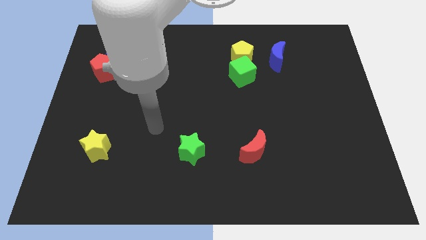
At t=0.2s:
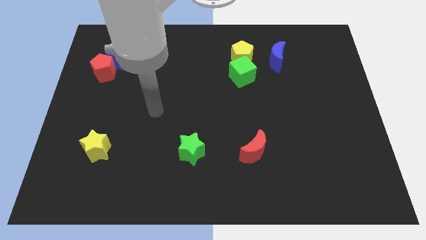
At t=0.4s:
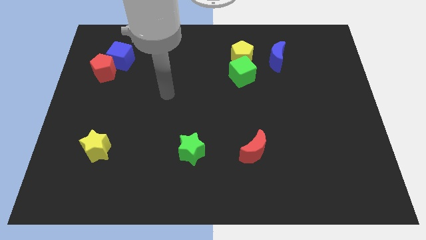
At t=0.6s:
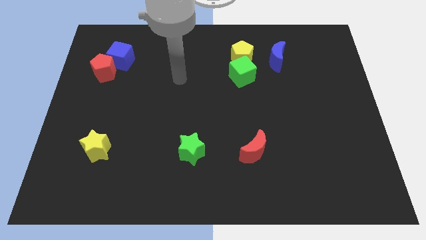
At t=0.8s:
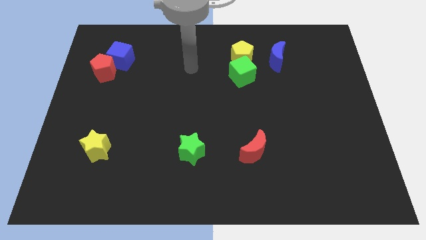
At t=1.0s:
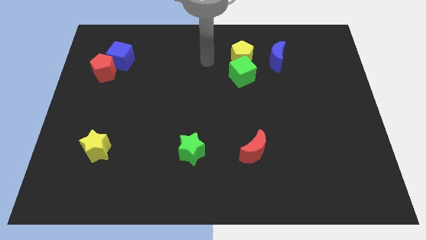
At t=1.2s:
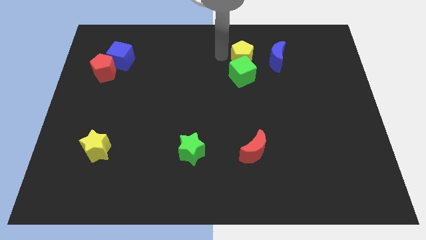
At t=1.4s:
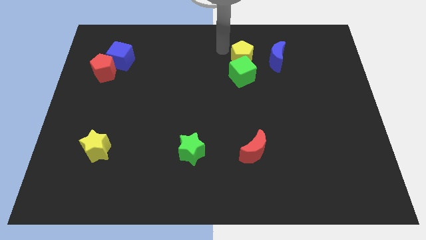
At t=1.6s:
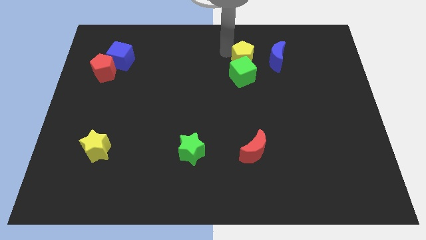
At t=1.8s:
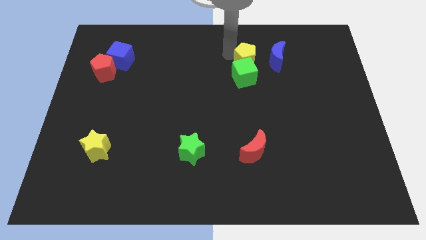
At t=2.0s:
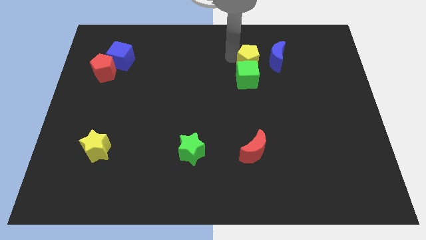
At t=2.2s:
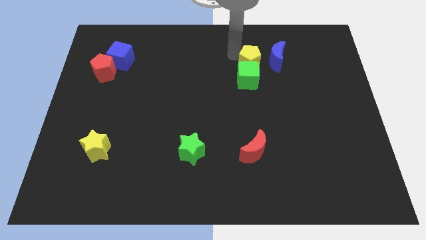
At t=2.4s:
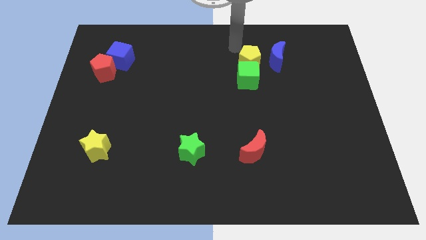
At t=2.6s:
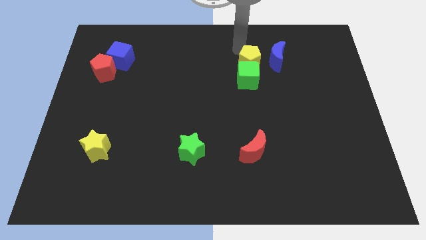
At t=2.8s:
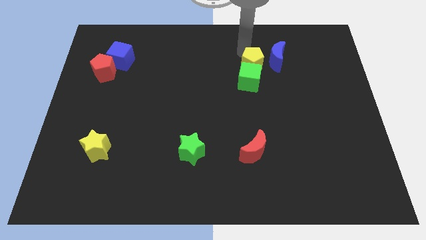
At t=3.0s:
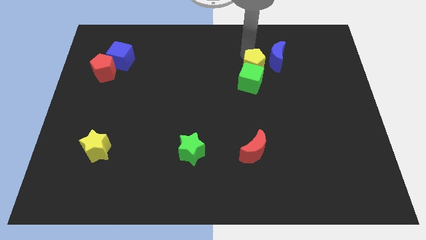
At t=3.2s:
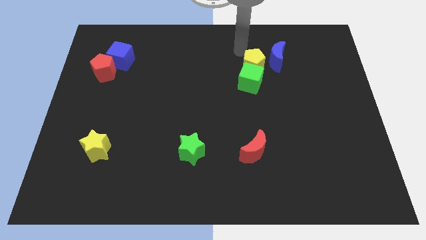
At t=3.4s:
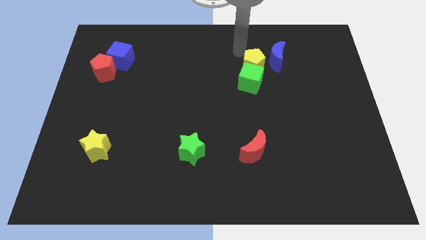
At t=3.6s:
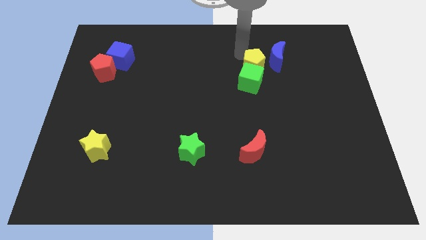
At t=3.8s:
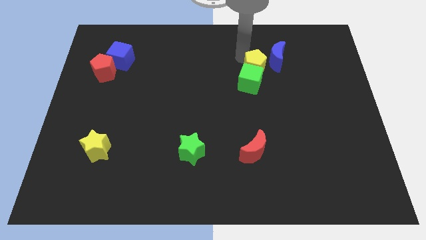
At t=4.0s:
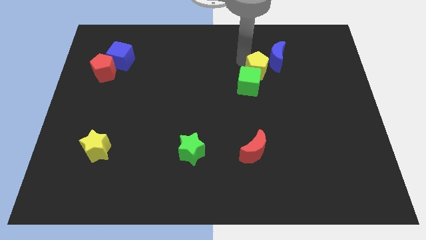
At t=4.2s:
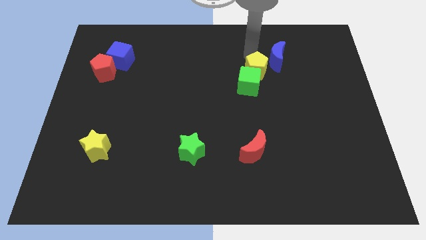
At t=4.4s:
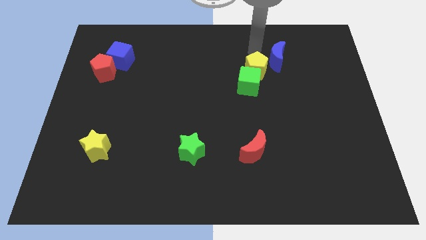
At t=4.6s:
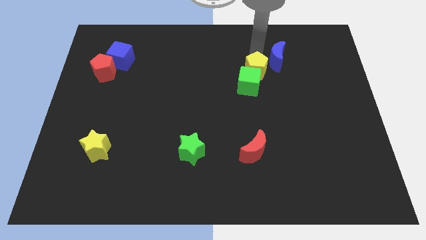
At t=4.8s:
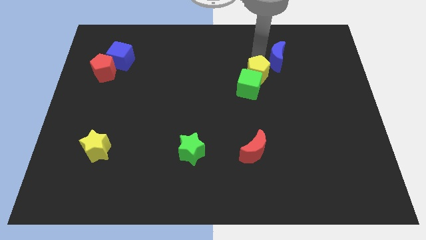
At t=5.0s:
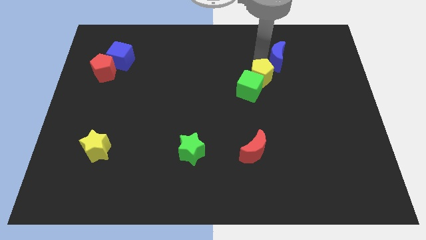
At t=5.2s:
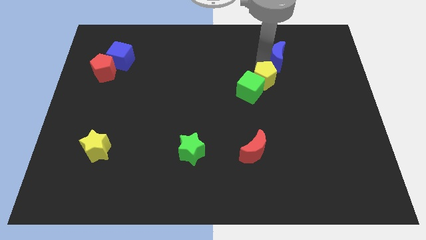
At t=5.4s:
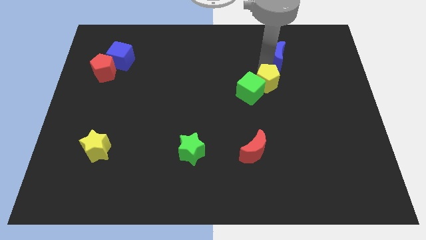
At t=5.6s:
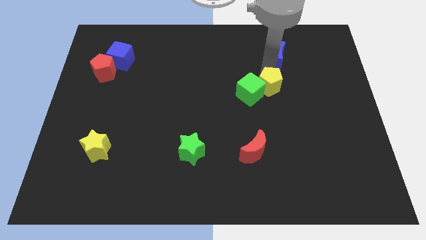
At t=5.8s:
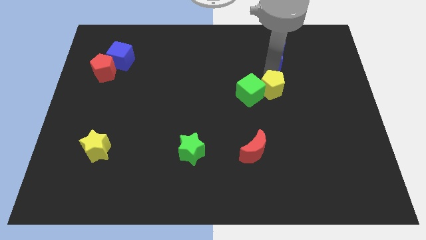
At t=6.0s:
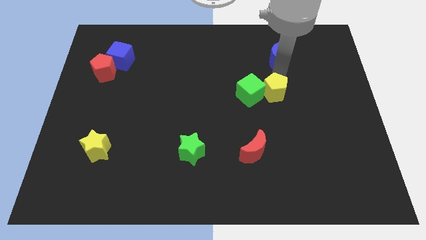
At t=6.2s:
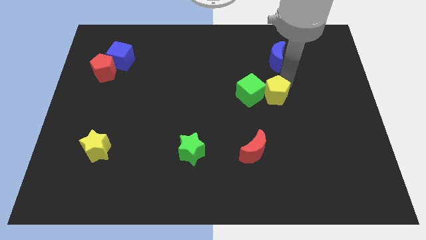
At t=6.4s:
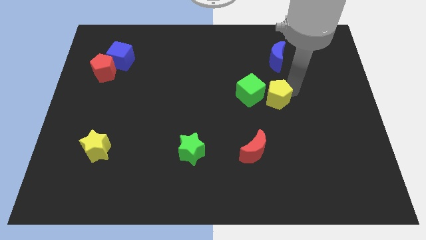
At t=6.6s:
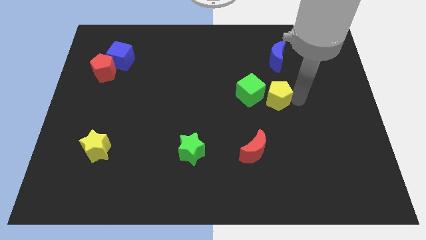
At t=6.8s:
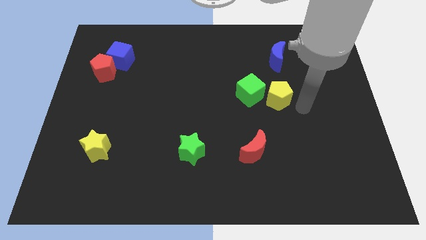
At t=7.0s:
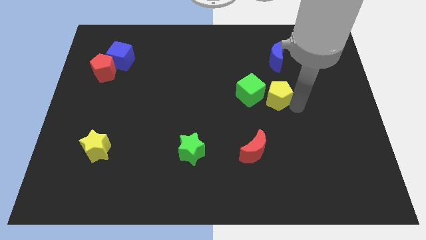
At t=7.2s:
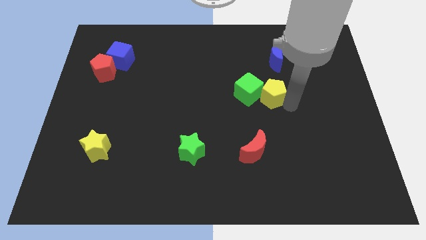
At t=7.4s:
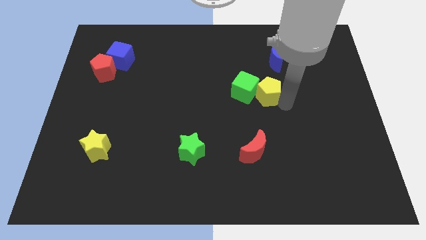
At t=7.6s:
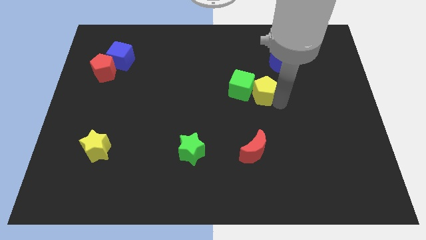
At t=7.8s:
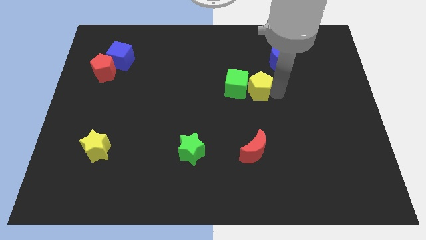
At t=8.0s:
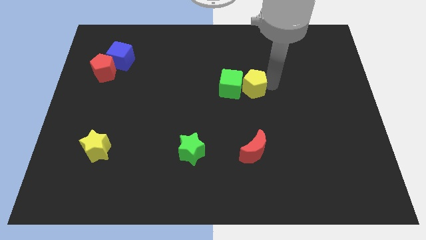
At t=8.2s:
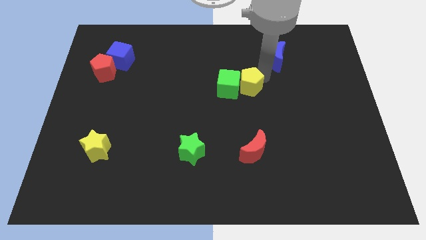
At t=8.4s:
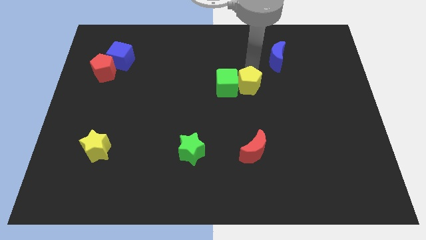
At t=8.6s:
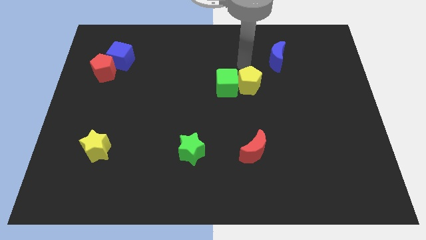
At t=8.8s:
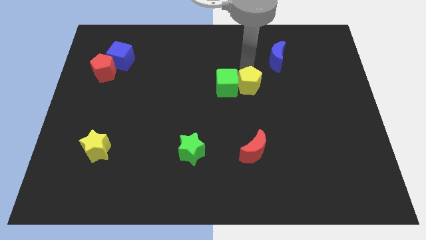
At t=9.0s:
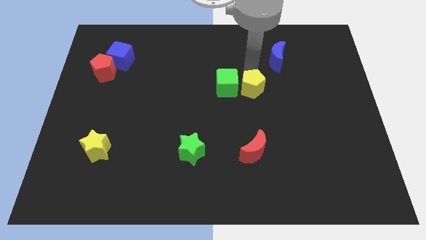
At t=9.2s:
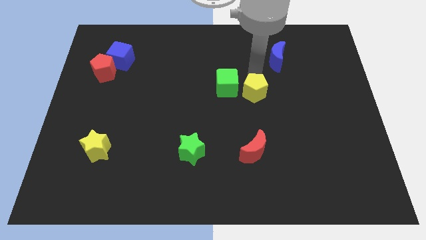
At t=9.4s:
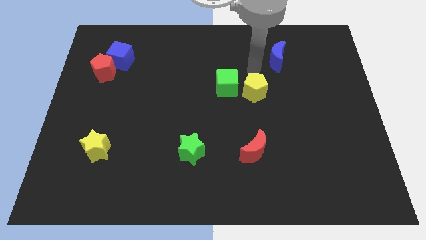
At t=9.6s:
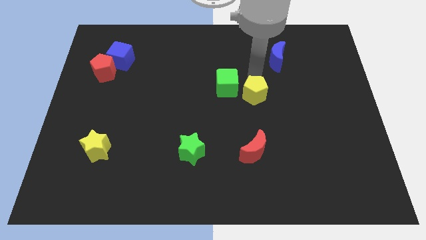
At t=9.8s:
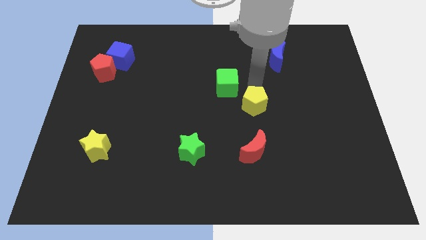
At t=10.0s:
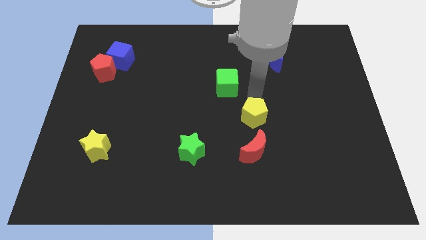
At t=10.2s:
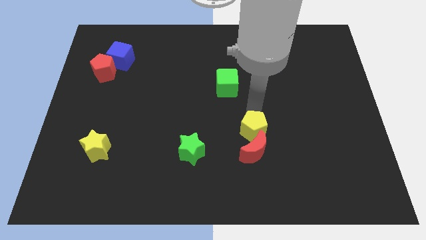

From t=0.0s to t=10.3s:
slide the yellow pentagon to the red moon

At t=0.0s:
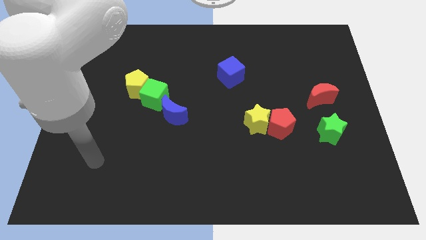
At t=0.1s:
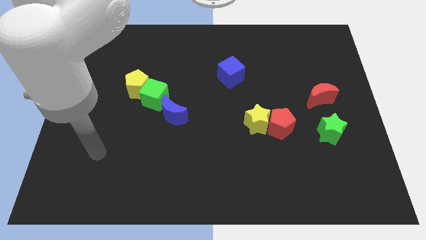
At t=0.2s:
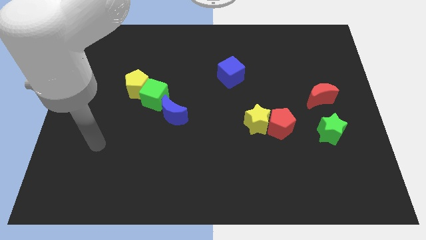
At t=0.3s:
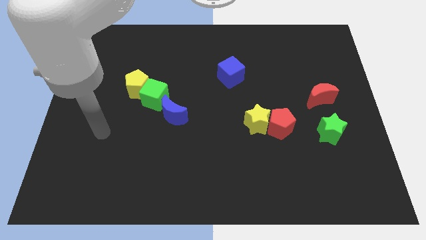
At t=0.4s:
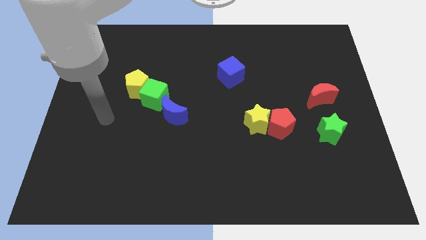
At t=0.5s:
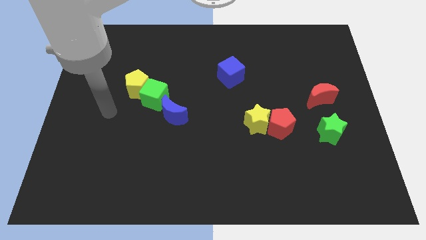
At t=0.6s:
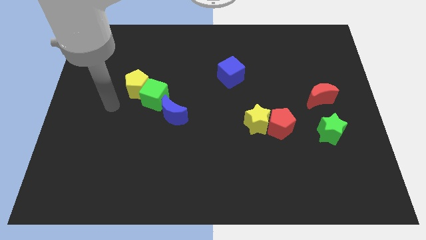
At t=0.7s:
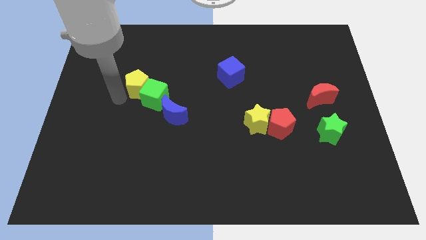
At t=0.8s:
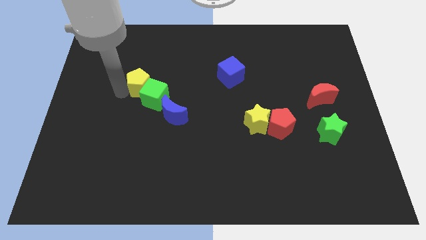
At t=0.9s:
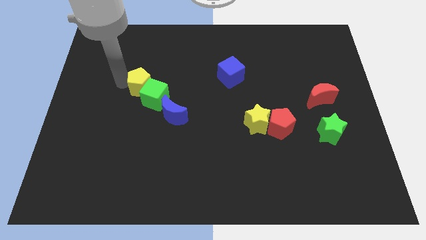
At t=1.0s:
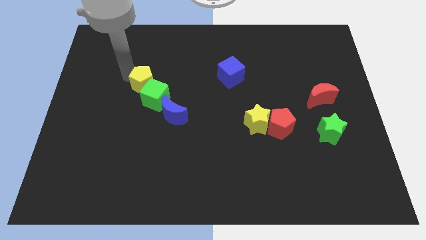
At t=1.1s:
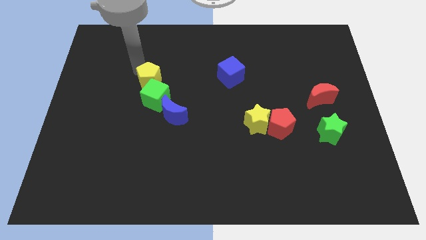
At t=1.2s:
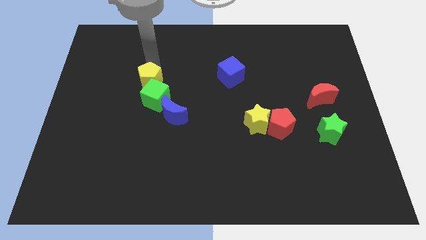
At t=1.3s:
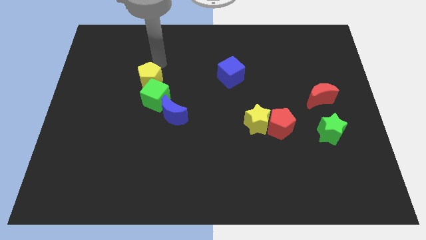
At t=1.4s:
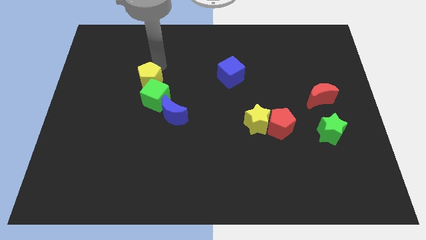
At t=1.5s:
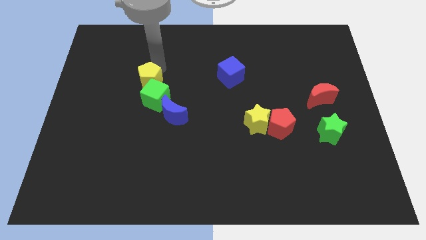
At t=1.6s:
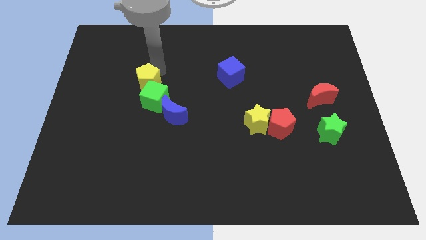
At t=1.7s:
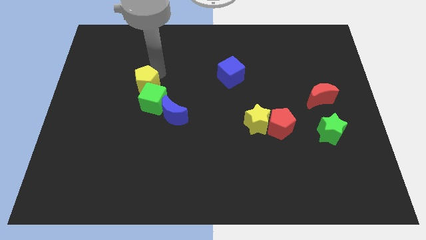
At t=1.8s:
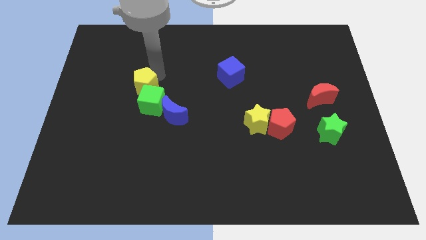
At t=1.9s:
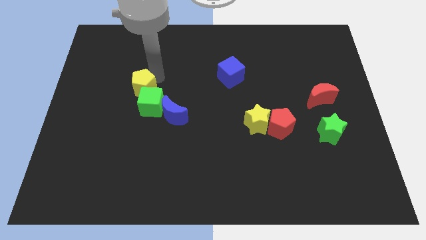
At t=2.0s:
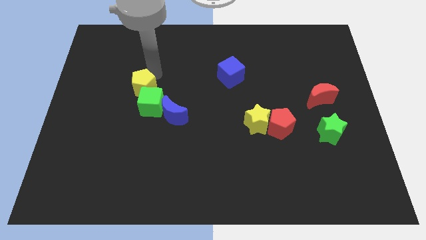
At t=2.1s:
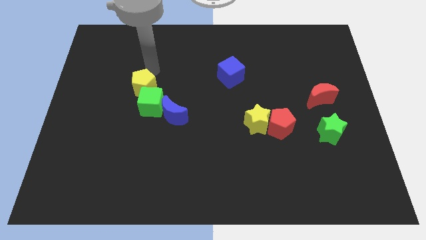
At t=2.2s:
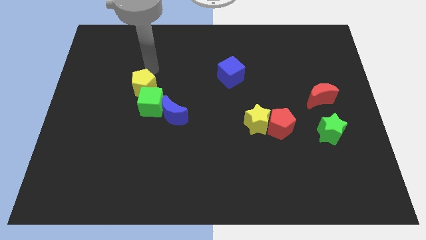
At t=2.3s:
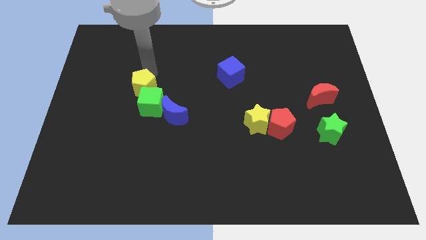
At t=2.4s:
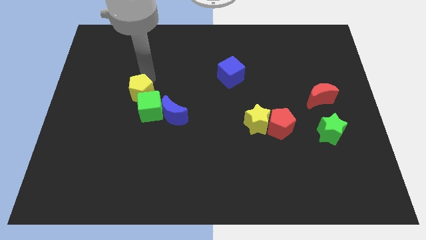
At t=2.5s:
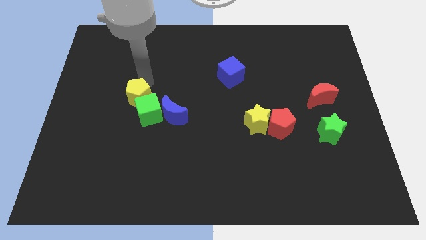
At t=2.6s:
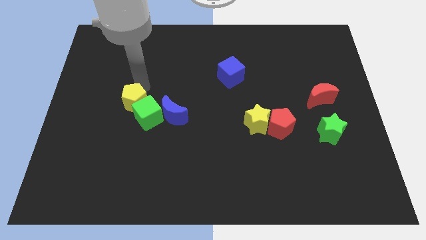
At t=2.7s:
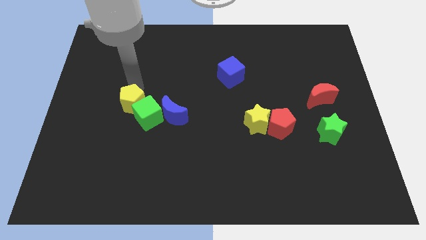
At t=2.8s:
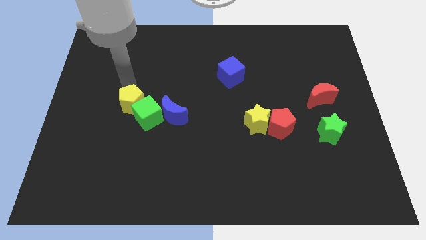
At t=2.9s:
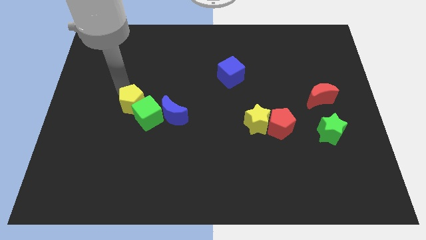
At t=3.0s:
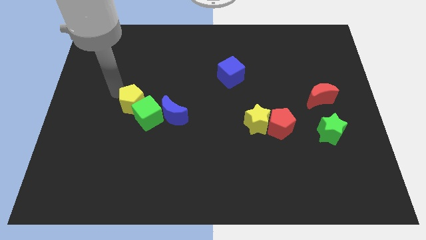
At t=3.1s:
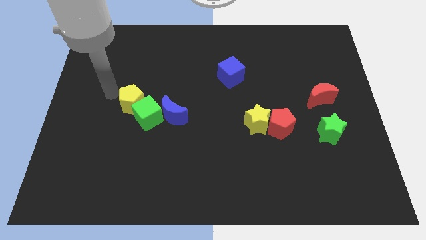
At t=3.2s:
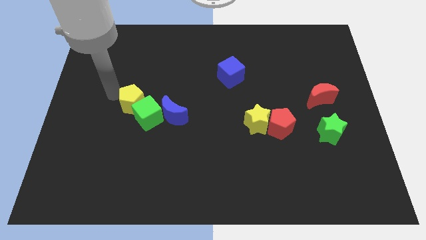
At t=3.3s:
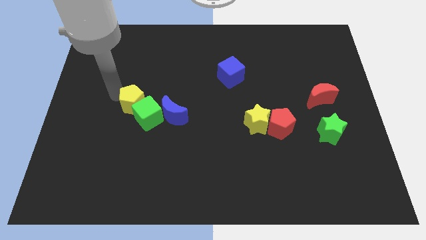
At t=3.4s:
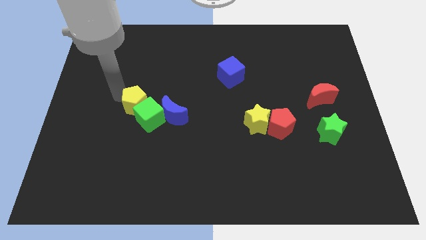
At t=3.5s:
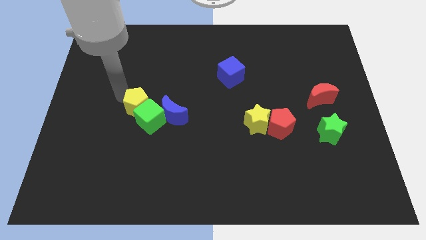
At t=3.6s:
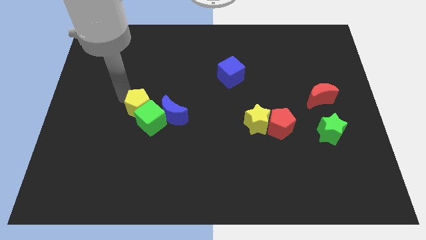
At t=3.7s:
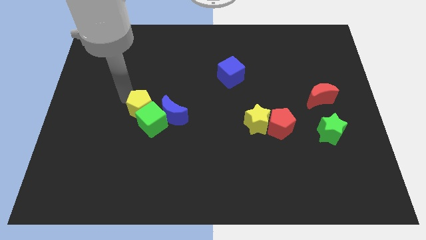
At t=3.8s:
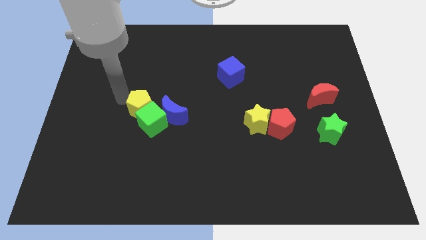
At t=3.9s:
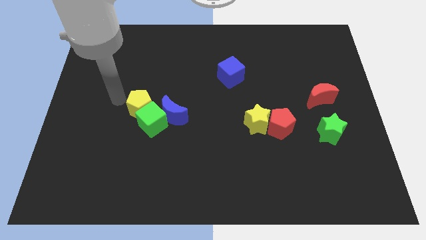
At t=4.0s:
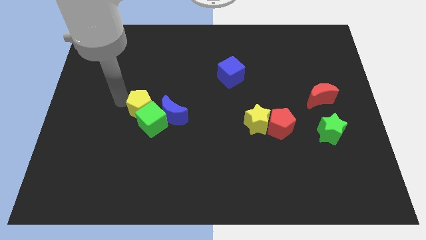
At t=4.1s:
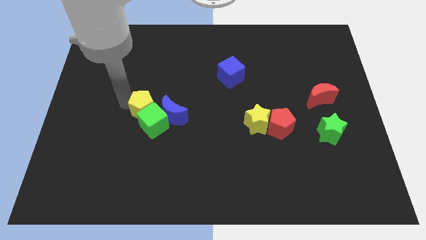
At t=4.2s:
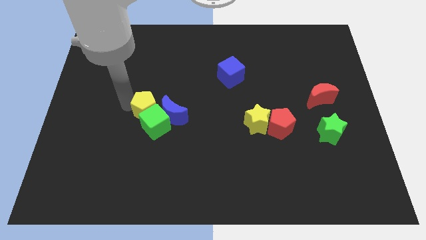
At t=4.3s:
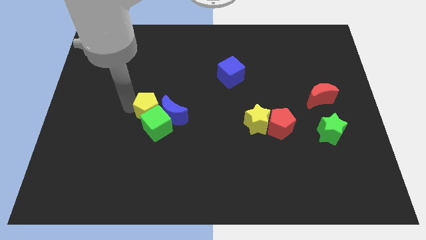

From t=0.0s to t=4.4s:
put the yellow pentagon towards the blue moon
